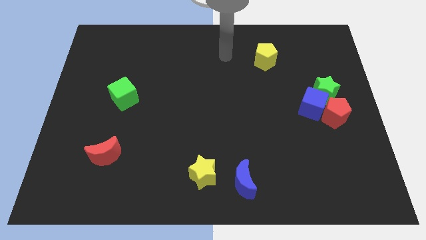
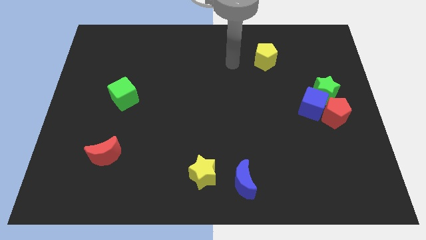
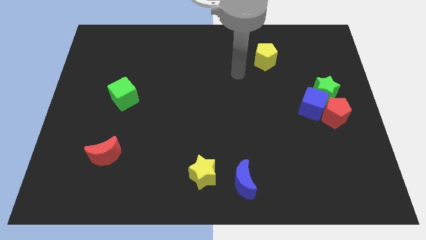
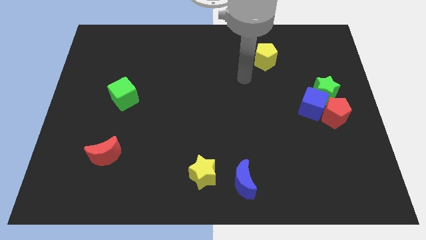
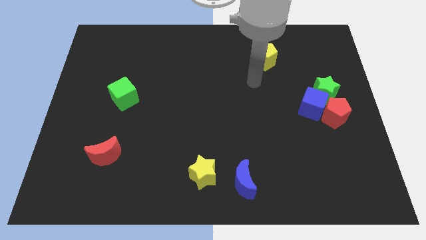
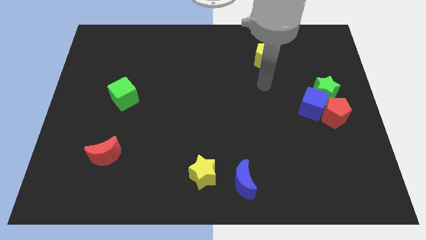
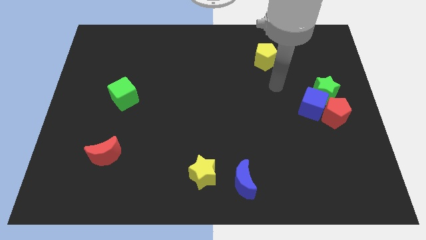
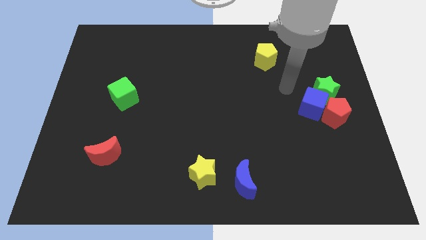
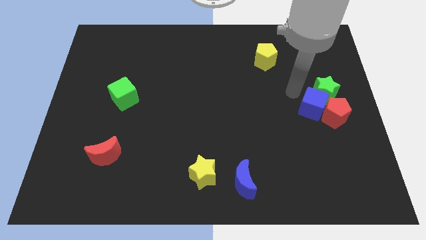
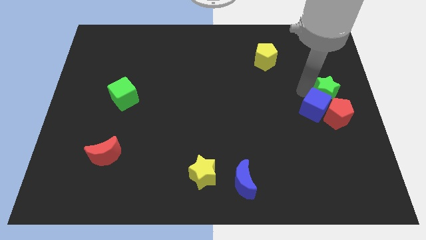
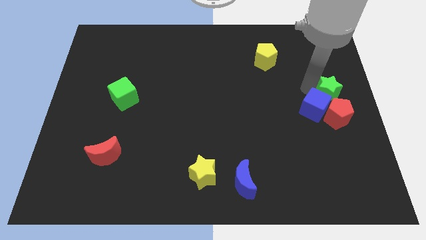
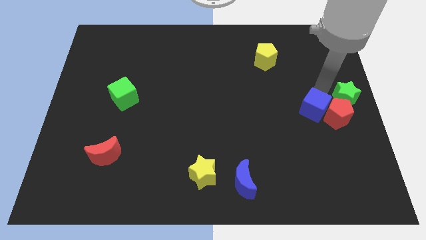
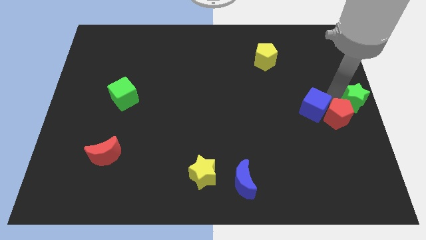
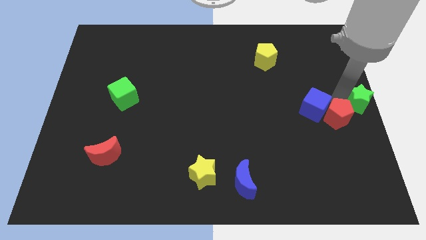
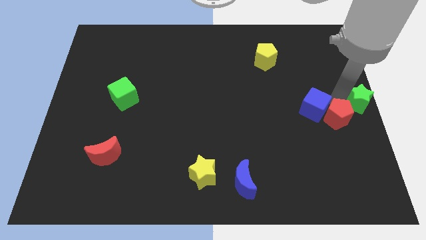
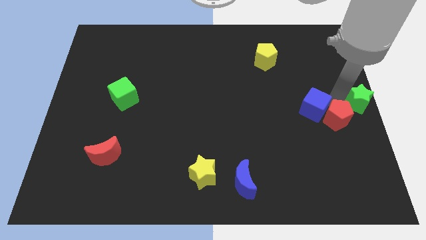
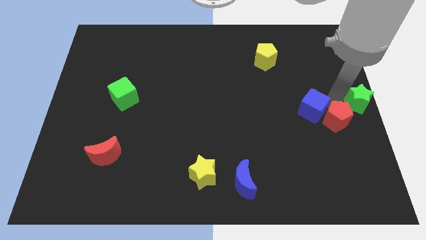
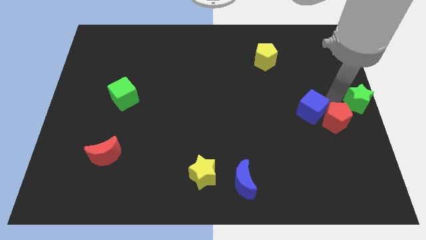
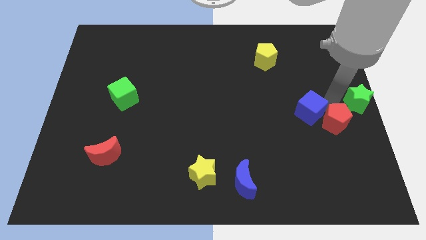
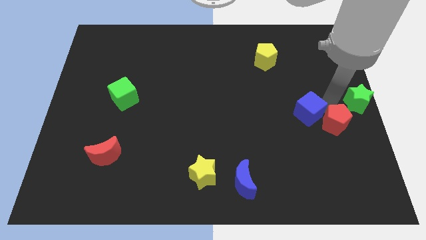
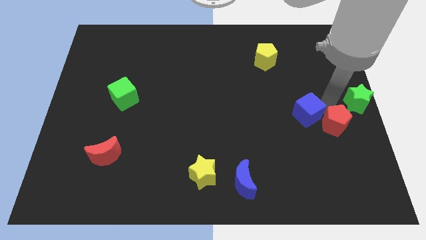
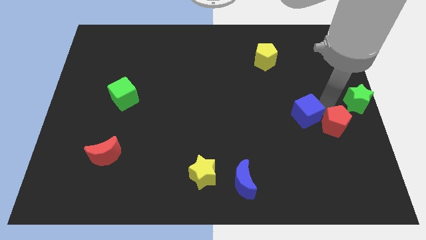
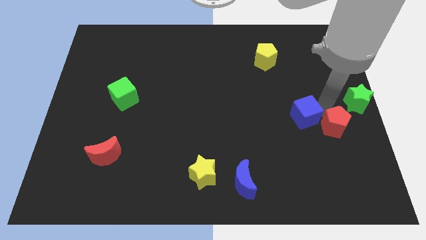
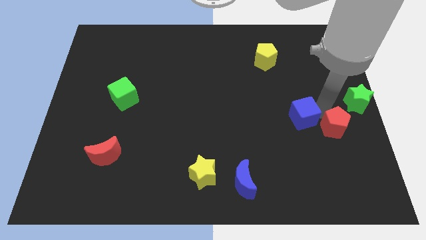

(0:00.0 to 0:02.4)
move the blue cube away from the red pentagon and green star

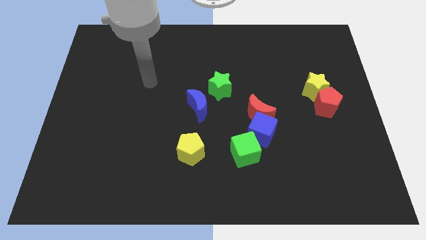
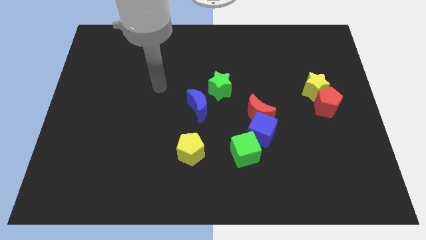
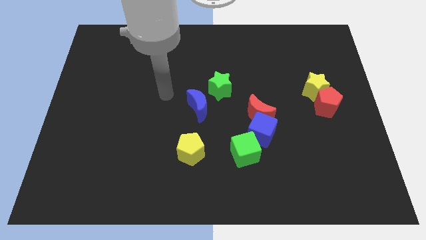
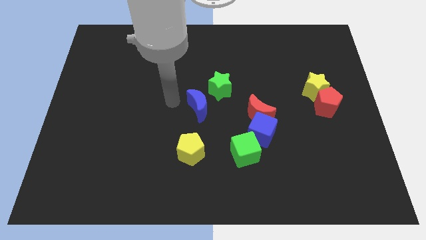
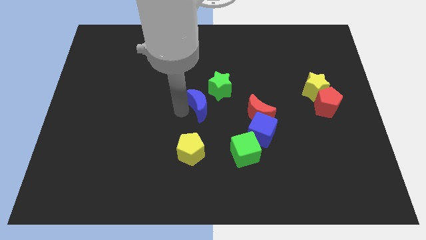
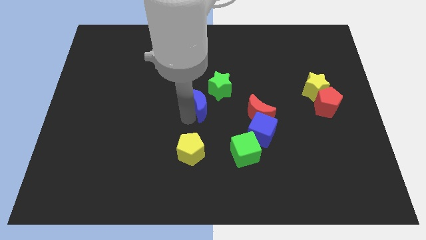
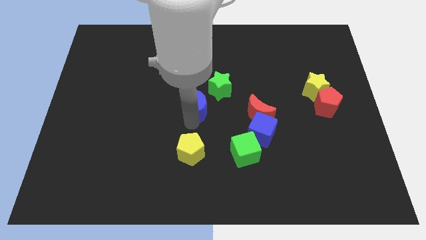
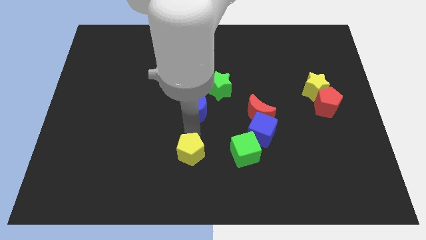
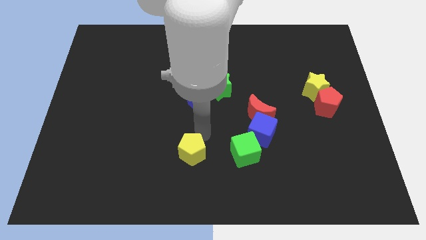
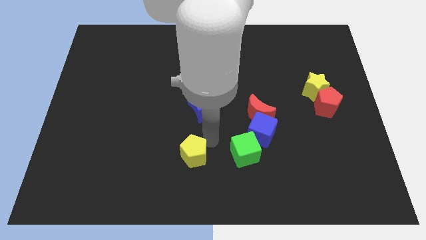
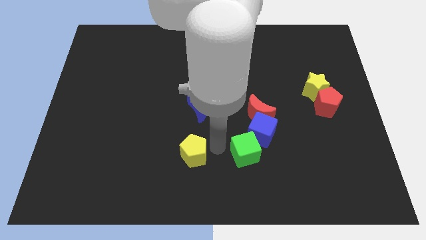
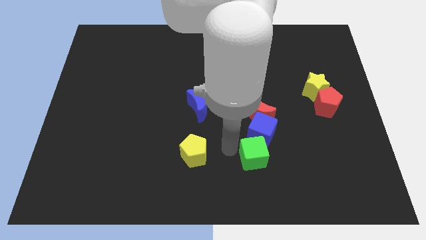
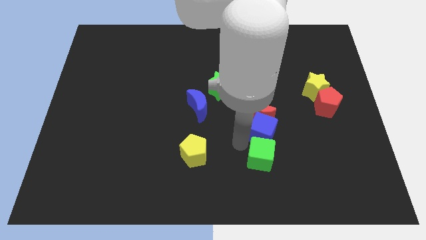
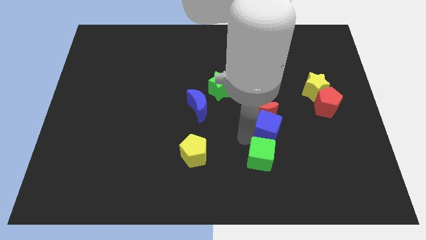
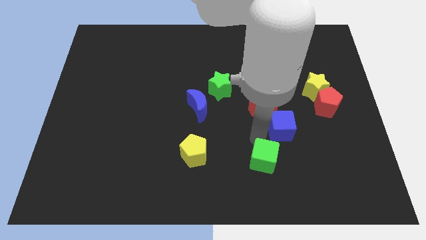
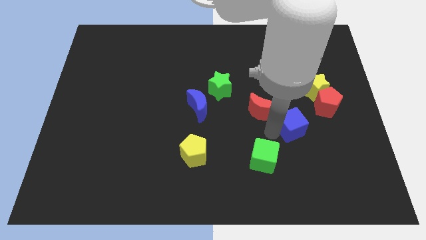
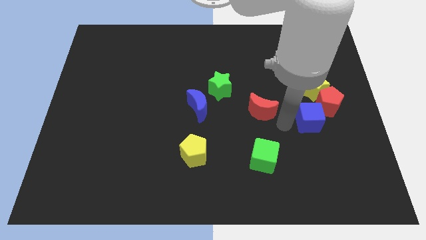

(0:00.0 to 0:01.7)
separate the red moon from the blue cube

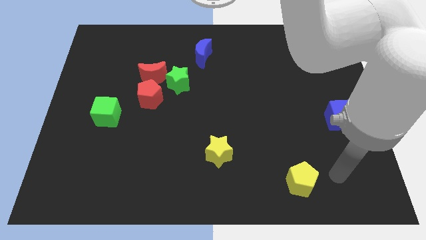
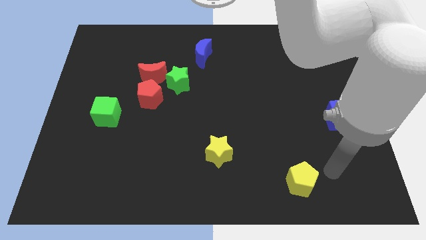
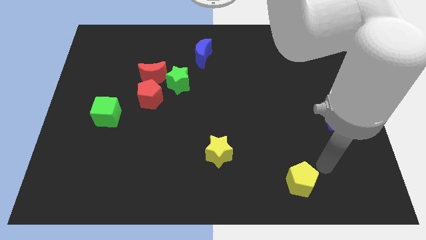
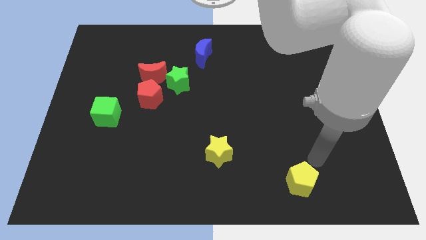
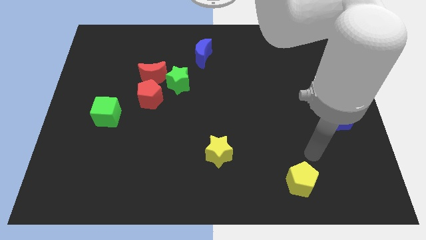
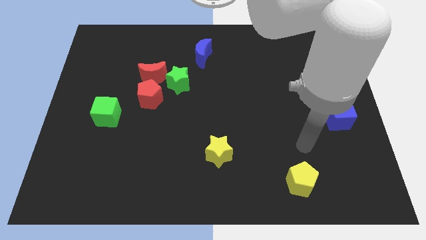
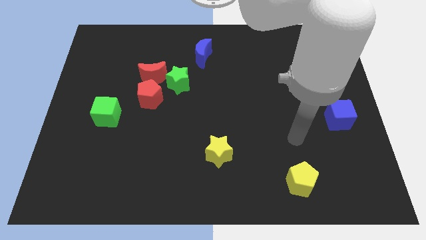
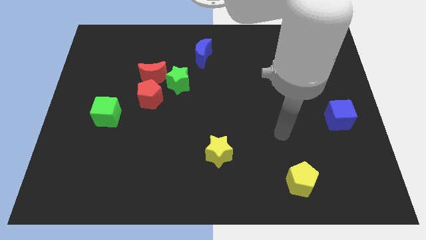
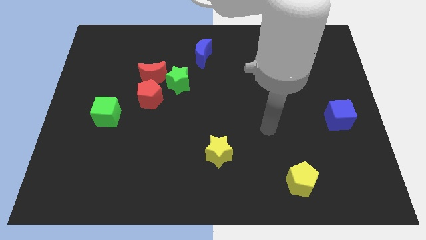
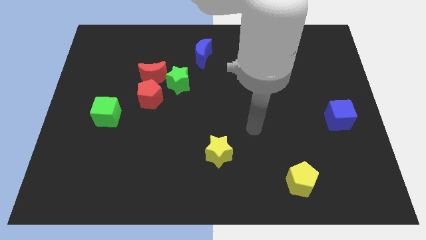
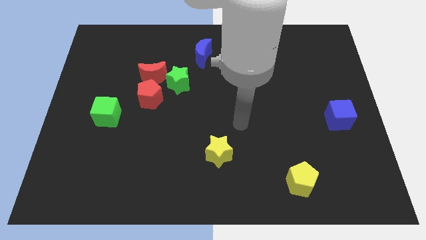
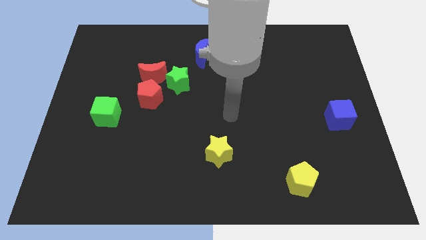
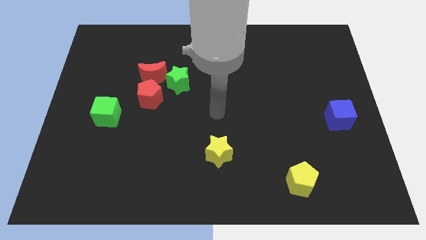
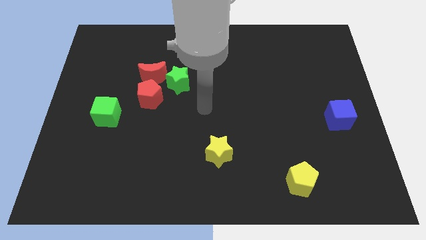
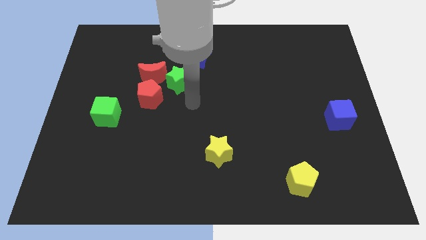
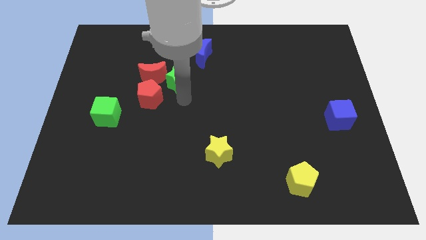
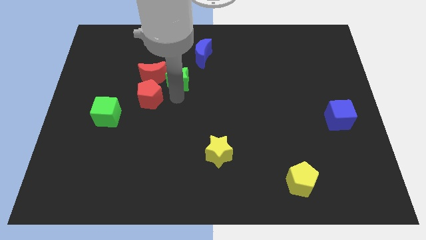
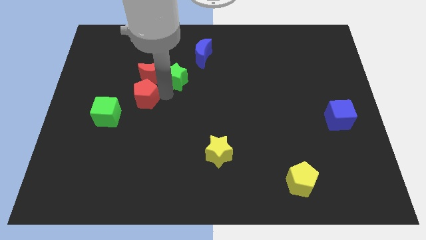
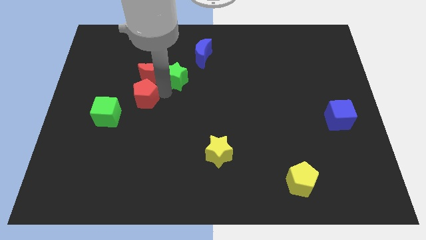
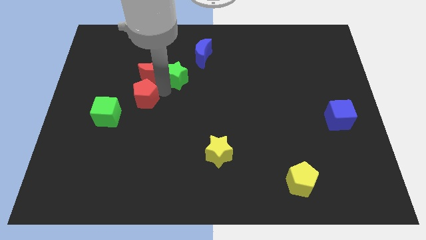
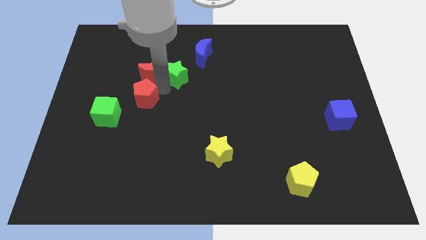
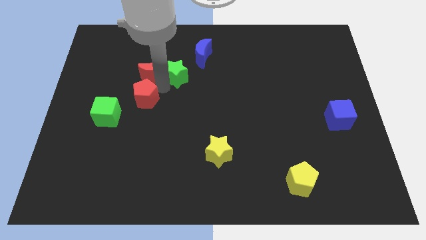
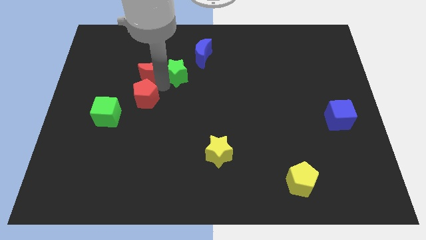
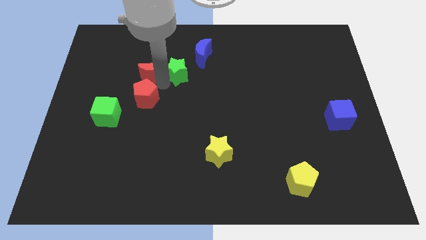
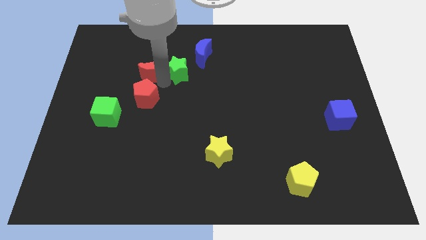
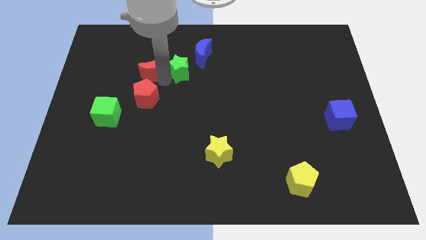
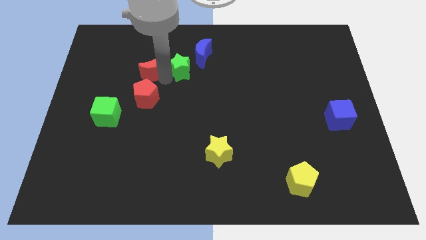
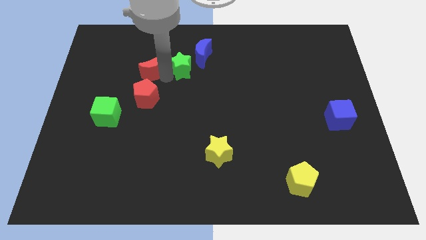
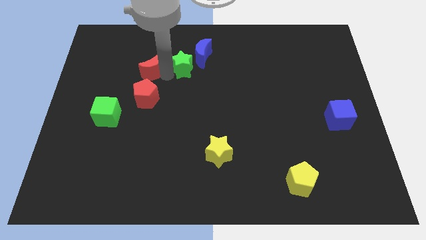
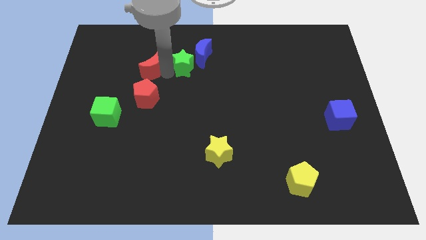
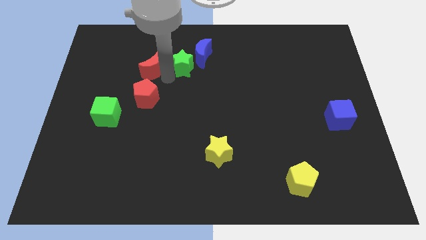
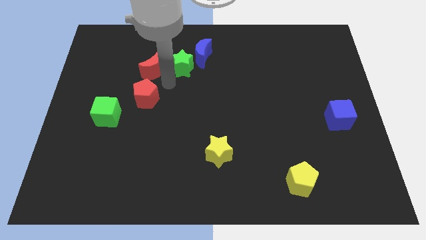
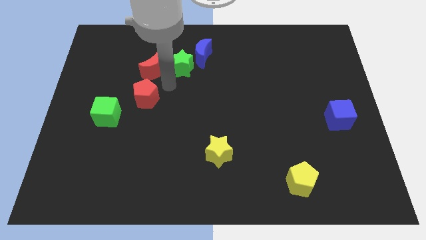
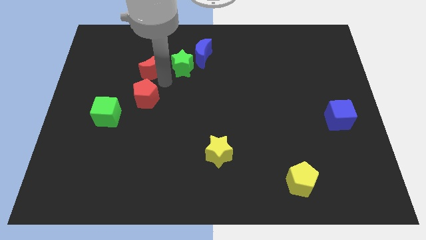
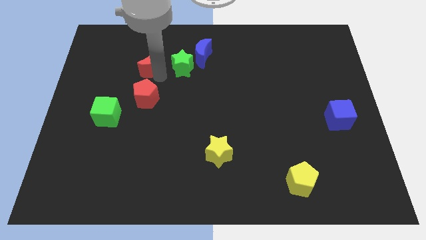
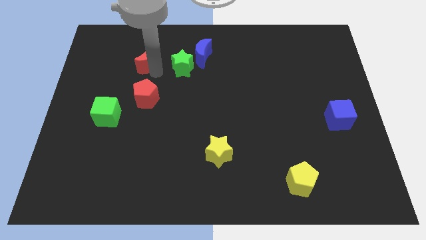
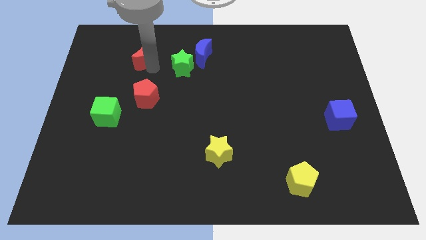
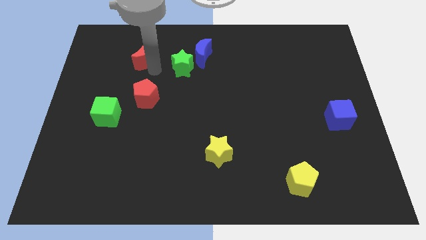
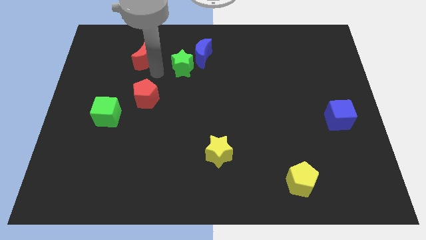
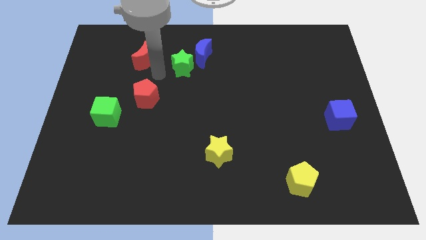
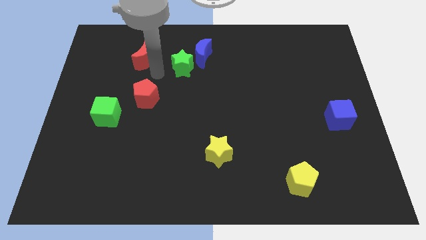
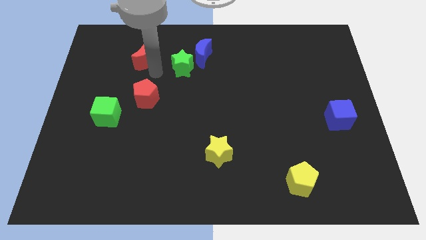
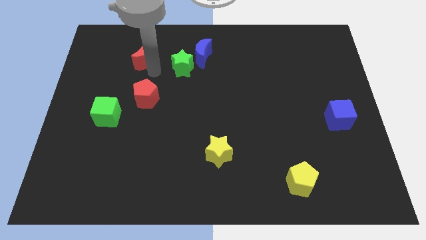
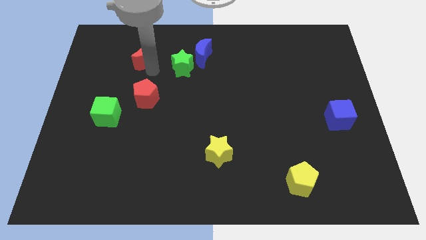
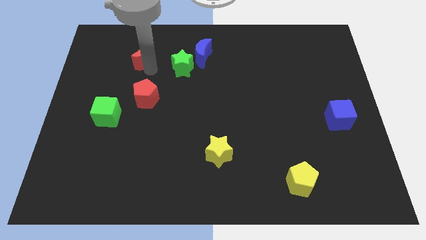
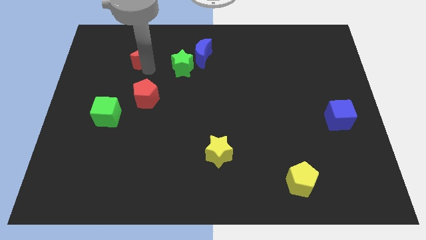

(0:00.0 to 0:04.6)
move the red moon away from the red pentagon and green star

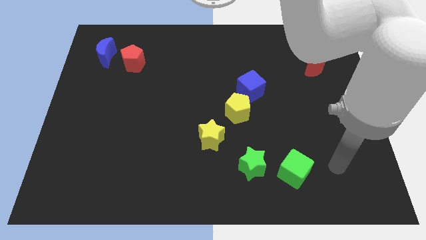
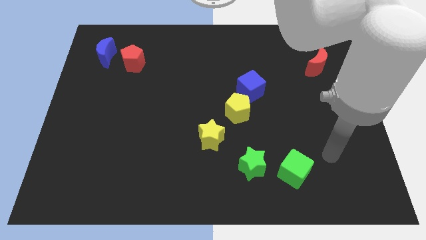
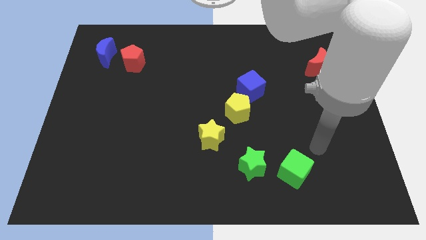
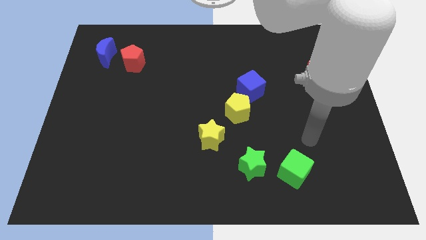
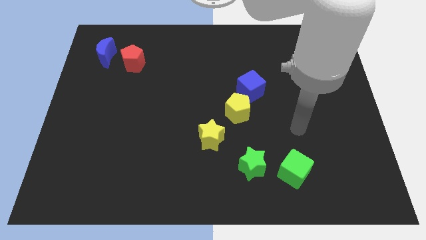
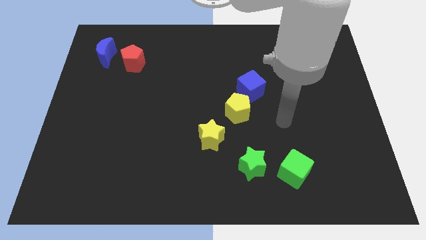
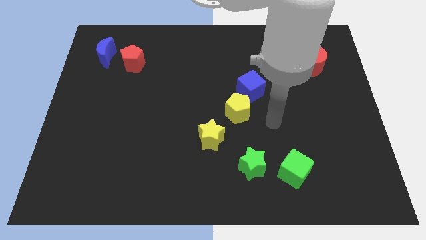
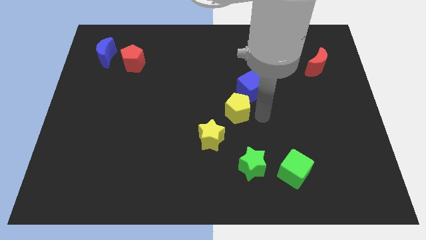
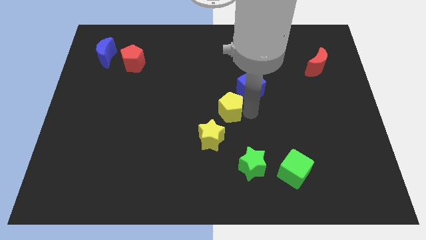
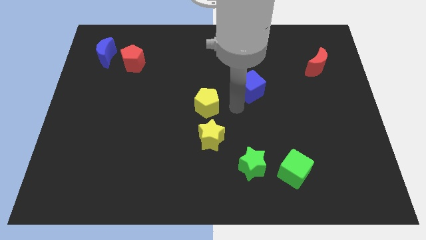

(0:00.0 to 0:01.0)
move the blue cube away from the yellow pentagon
